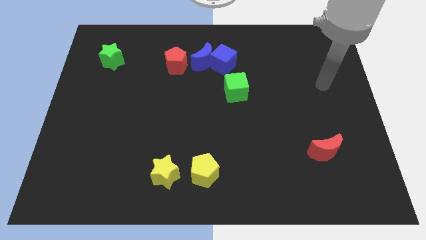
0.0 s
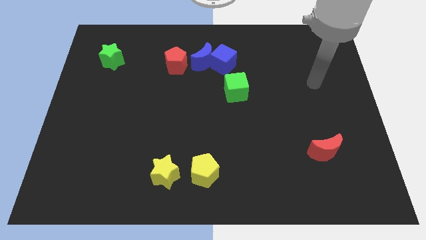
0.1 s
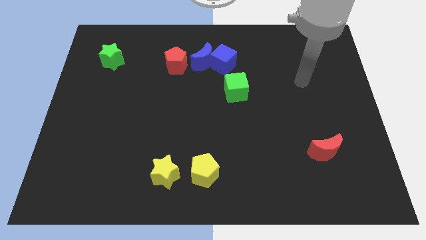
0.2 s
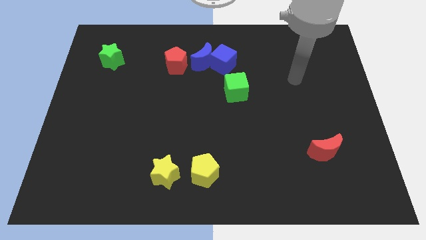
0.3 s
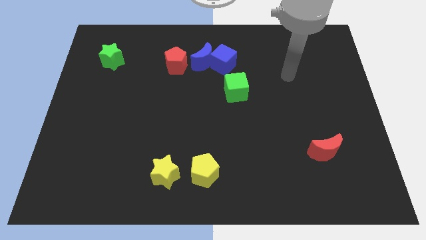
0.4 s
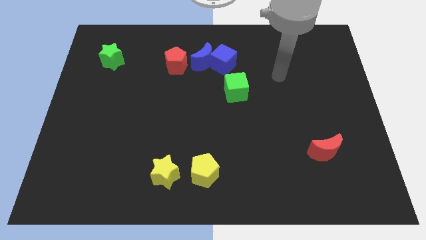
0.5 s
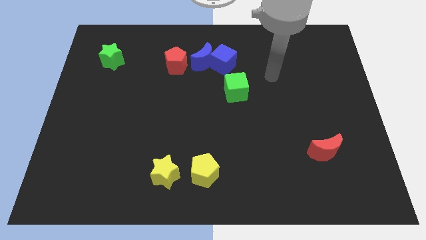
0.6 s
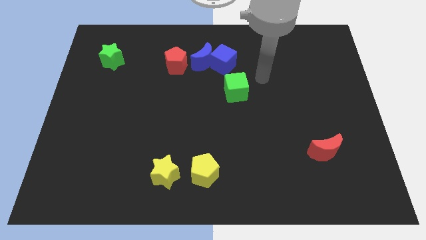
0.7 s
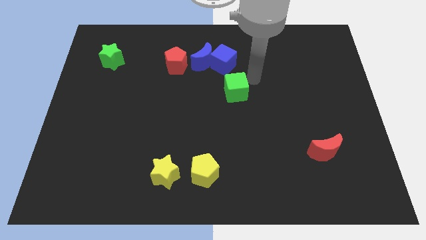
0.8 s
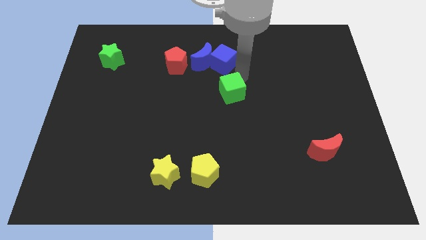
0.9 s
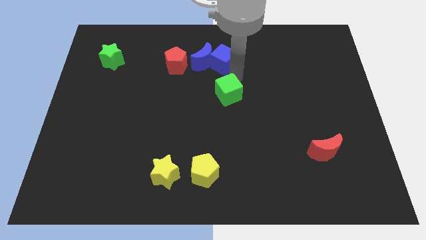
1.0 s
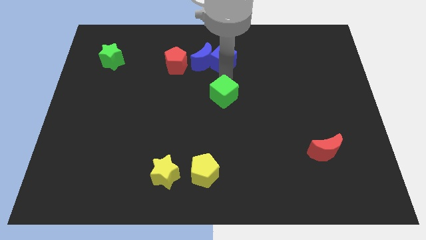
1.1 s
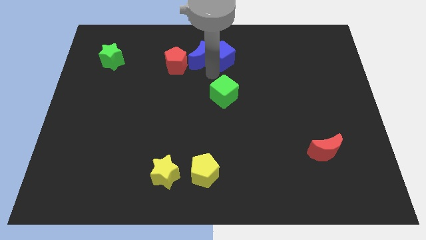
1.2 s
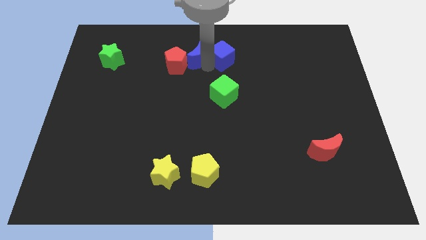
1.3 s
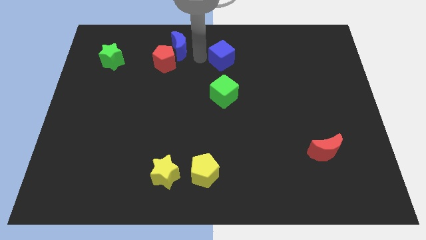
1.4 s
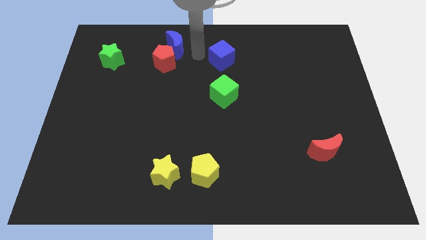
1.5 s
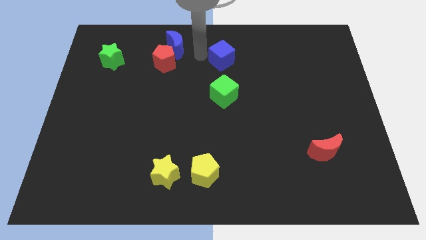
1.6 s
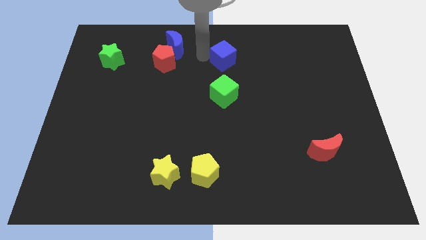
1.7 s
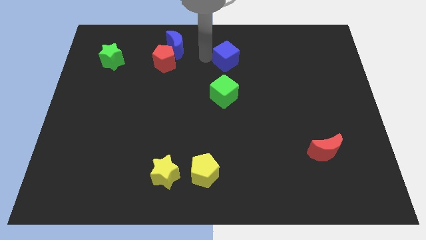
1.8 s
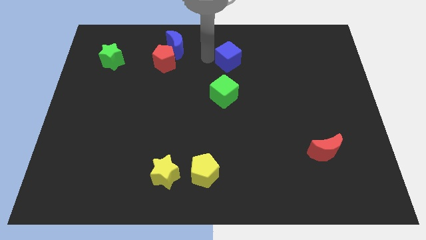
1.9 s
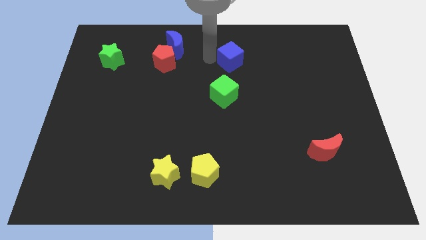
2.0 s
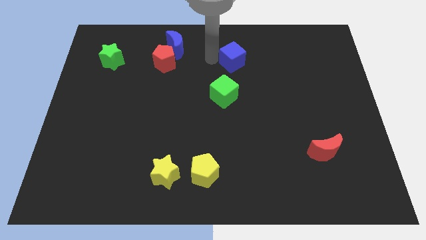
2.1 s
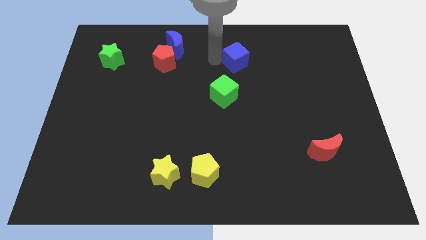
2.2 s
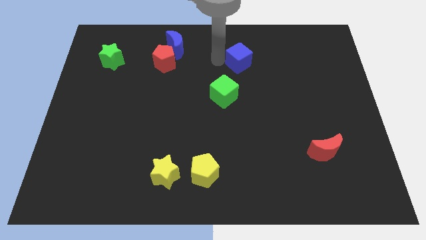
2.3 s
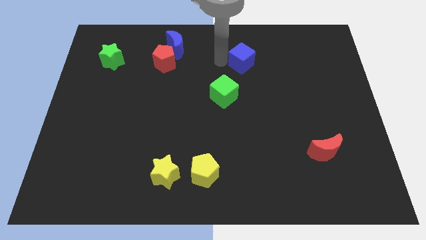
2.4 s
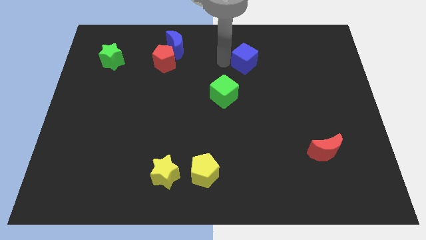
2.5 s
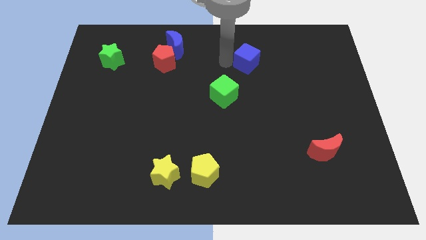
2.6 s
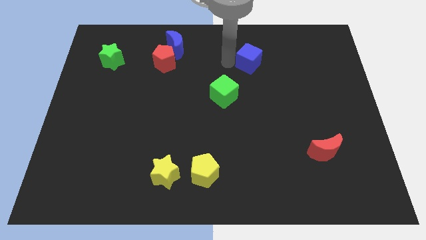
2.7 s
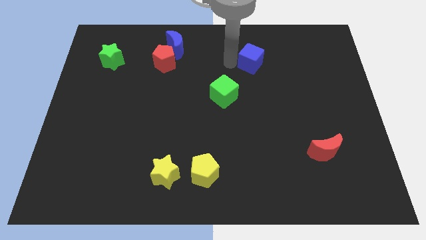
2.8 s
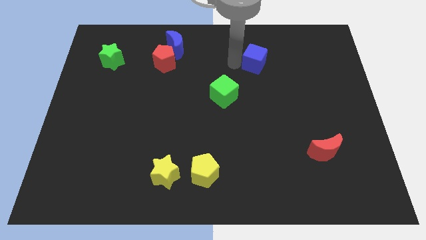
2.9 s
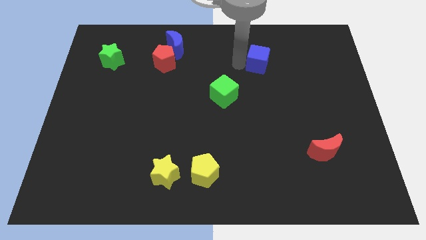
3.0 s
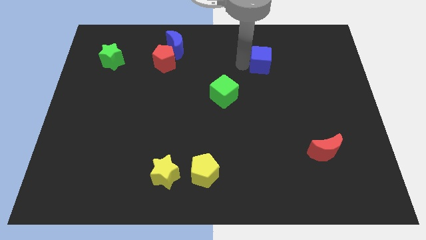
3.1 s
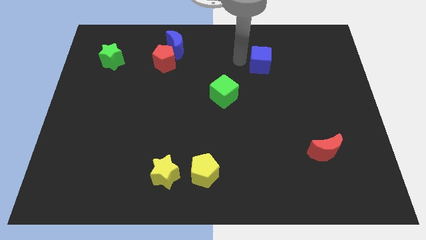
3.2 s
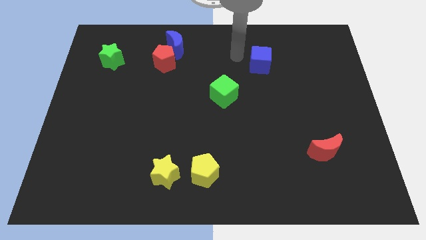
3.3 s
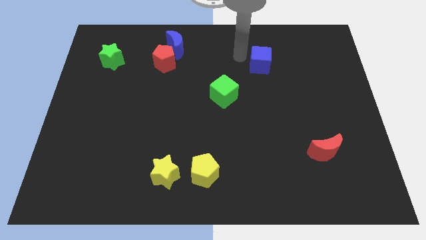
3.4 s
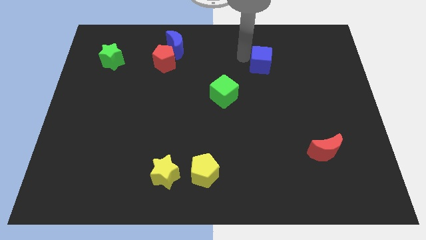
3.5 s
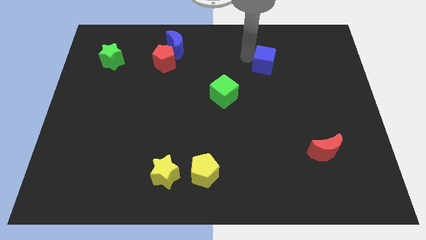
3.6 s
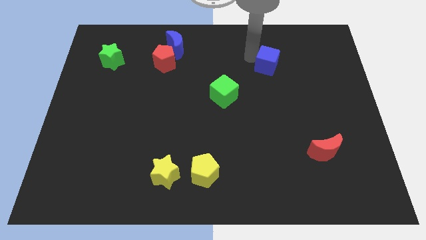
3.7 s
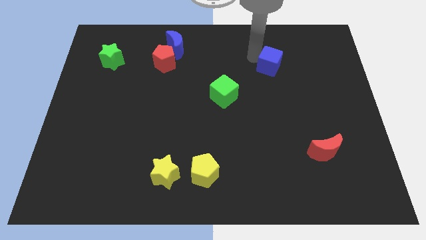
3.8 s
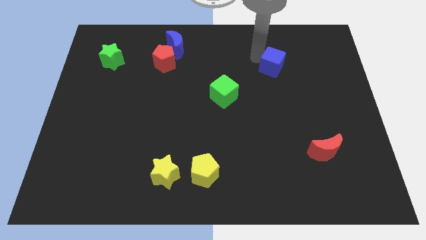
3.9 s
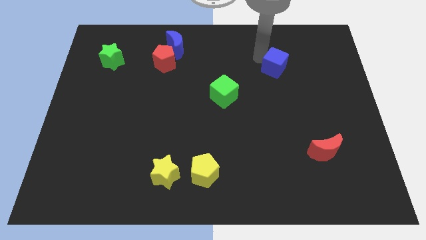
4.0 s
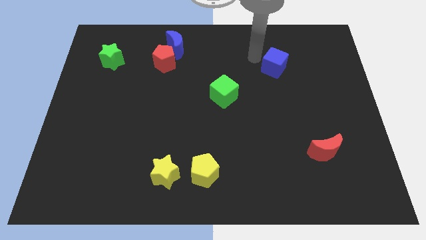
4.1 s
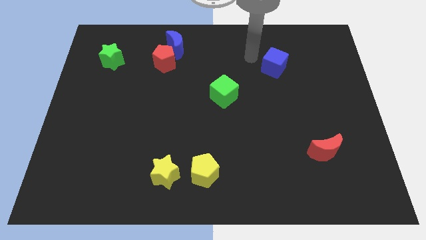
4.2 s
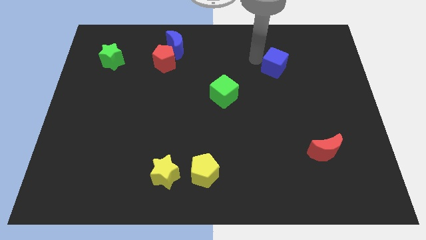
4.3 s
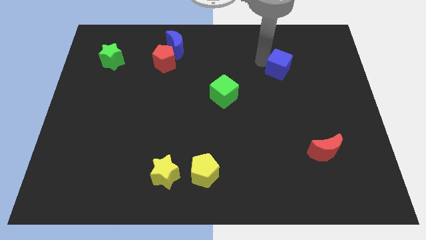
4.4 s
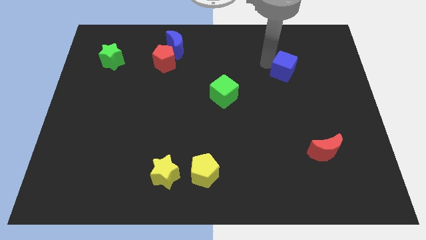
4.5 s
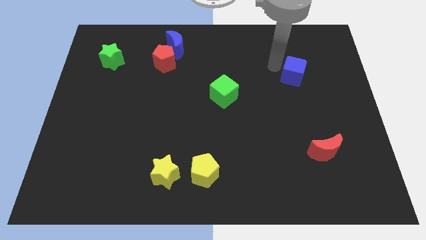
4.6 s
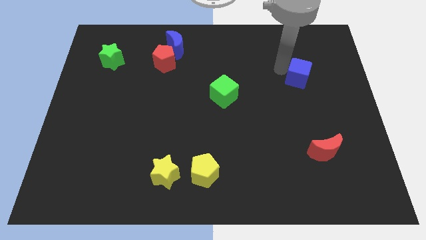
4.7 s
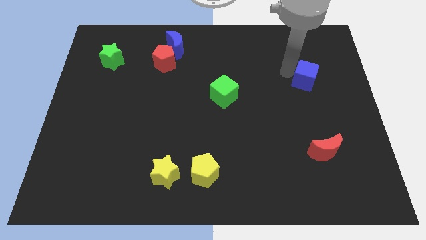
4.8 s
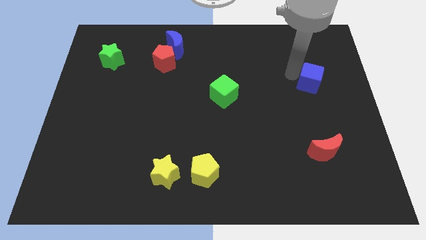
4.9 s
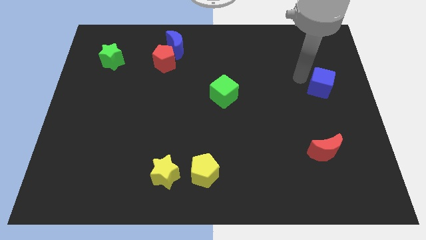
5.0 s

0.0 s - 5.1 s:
put the blue cube to the right side
